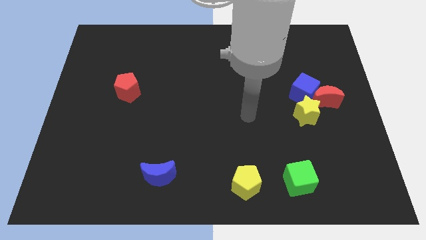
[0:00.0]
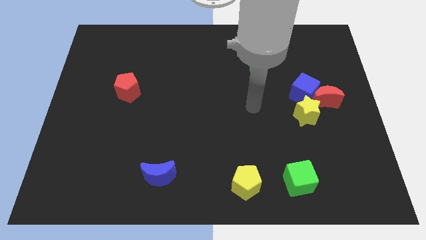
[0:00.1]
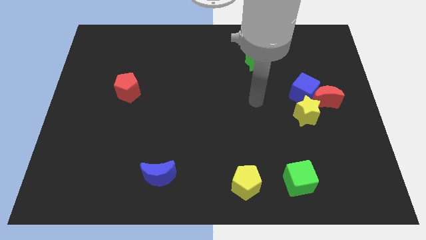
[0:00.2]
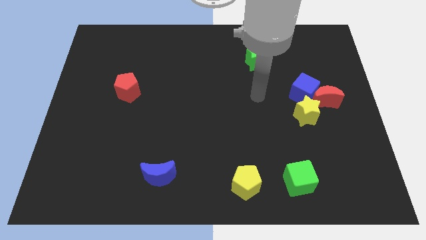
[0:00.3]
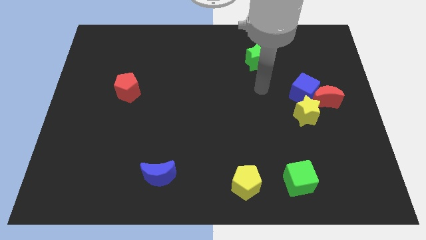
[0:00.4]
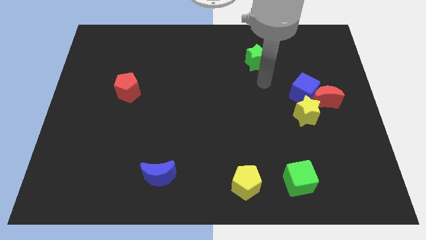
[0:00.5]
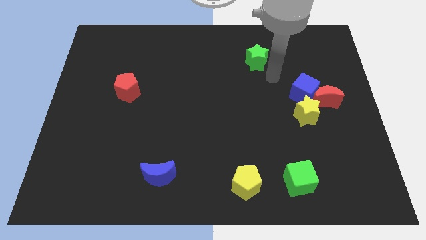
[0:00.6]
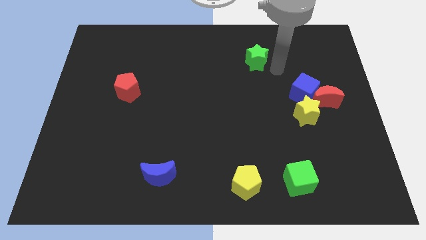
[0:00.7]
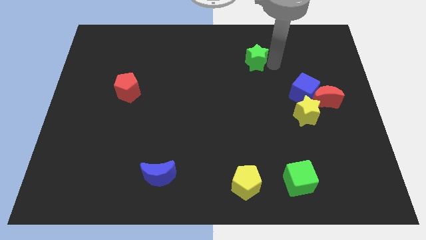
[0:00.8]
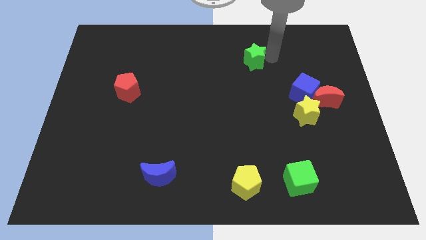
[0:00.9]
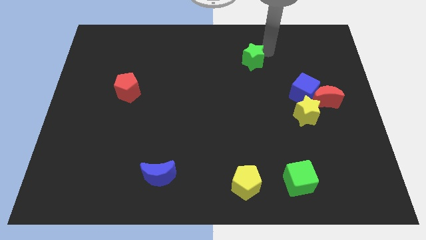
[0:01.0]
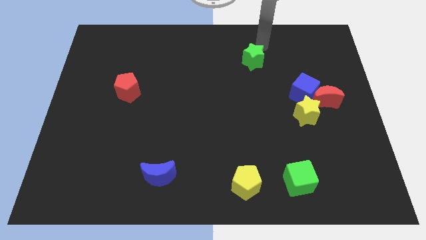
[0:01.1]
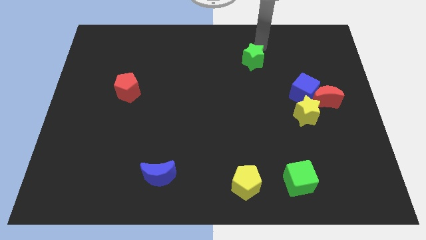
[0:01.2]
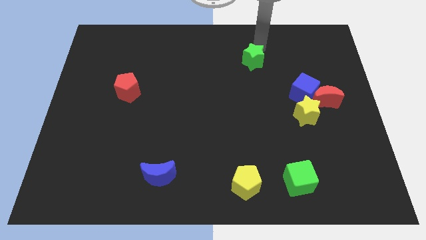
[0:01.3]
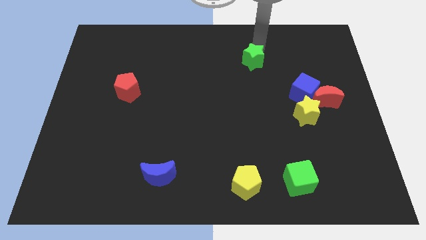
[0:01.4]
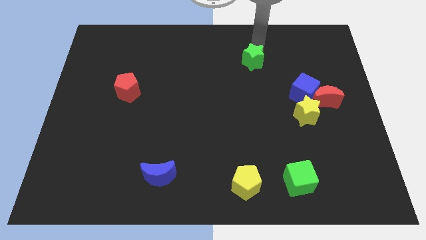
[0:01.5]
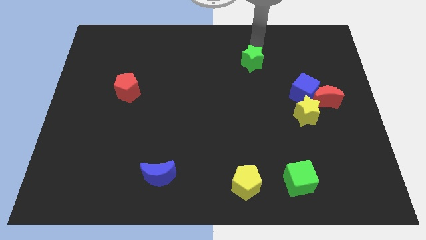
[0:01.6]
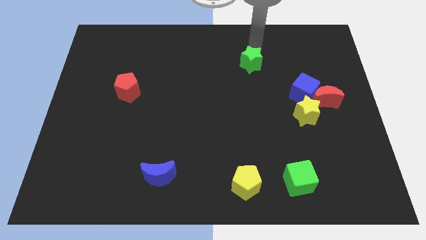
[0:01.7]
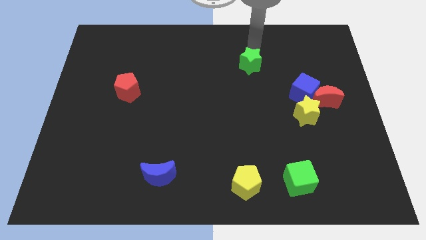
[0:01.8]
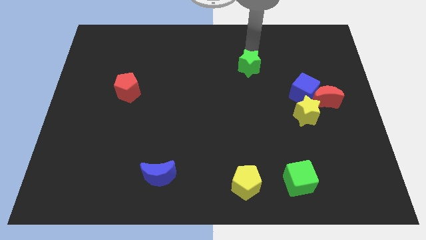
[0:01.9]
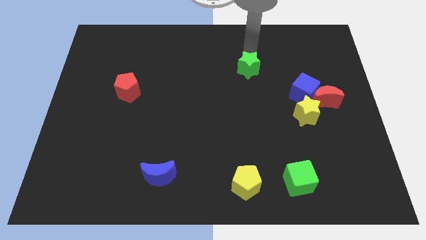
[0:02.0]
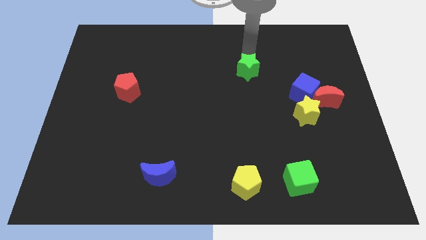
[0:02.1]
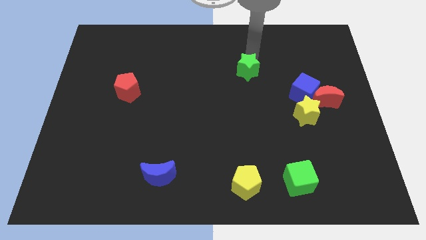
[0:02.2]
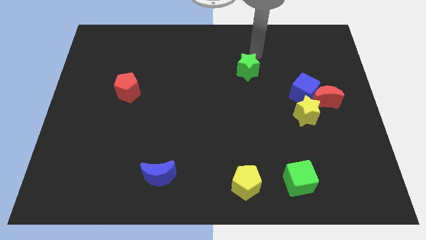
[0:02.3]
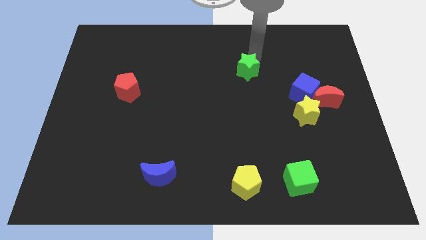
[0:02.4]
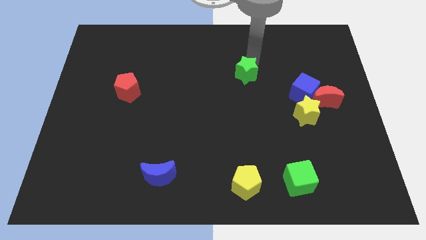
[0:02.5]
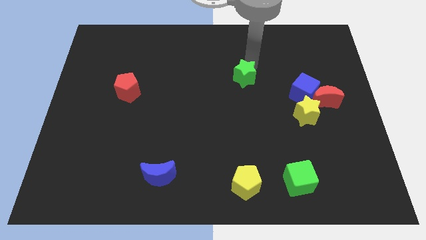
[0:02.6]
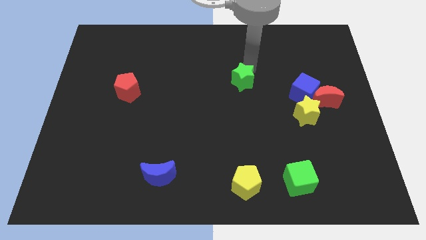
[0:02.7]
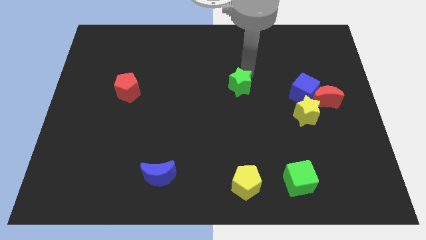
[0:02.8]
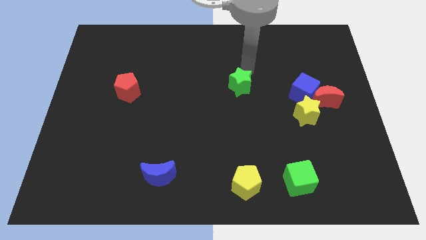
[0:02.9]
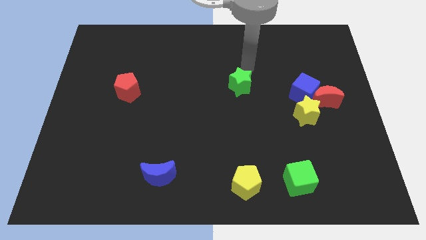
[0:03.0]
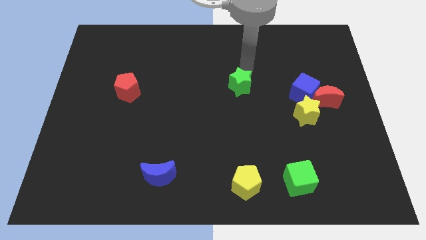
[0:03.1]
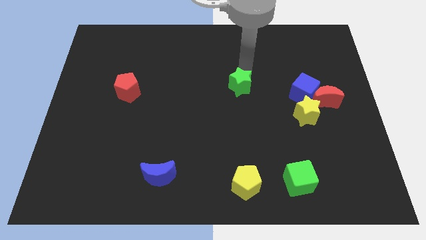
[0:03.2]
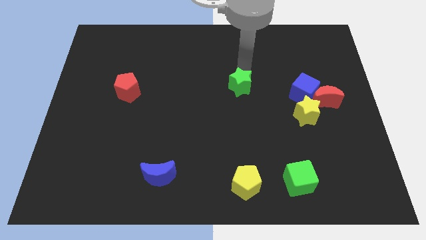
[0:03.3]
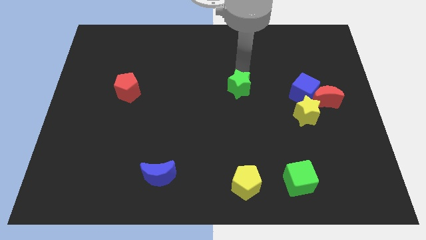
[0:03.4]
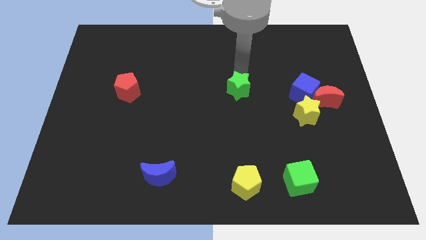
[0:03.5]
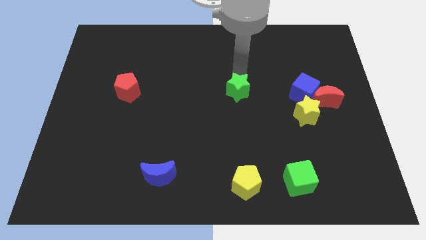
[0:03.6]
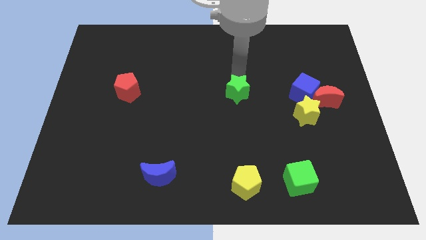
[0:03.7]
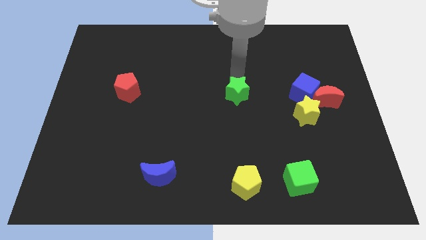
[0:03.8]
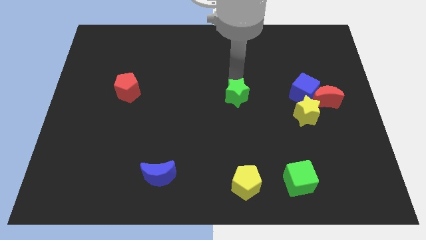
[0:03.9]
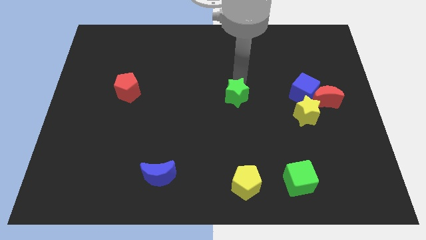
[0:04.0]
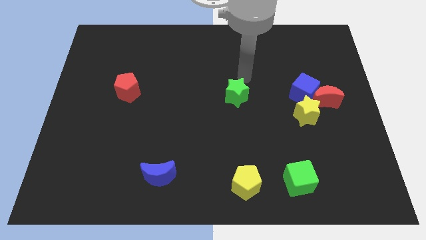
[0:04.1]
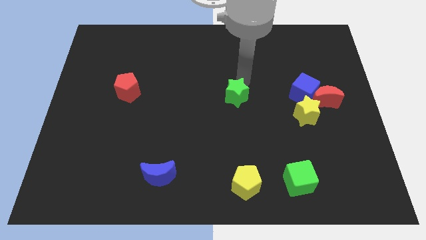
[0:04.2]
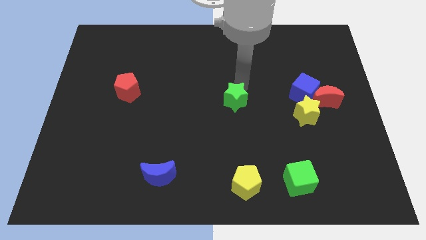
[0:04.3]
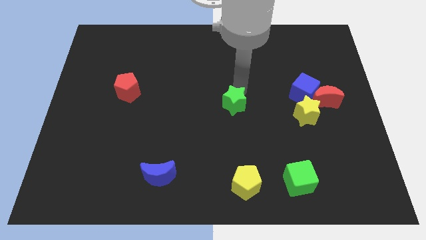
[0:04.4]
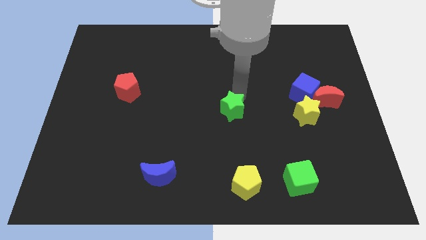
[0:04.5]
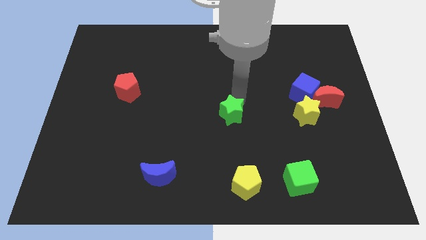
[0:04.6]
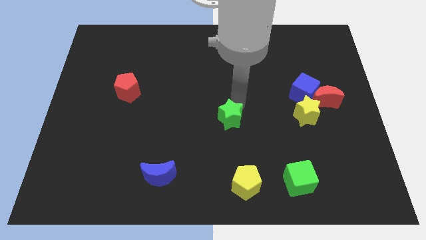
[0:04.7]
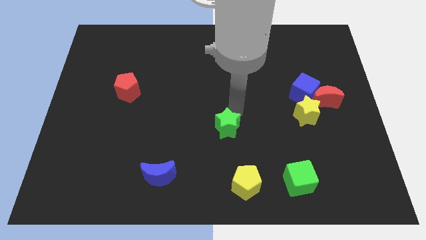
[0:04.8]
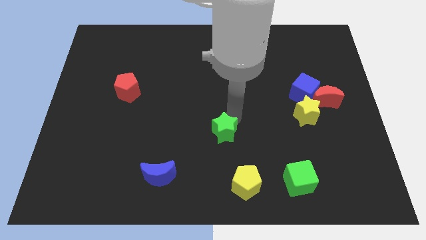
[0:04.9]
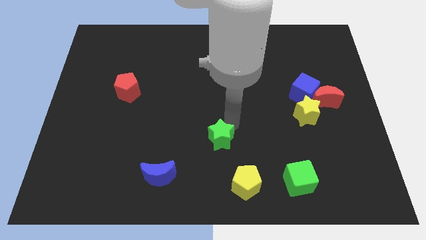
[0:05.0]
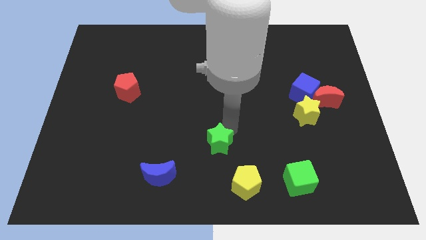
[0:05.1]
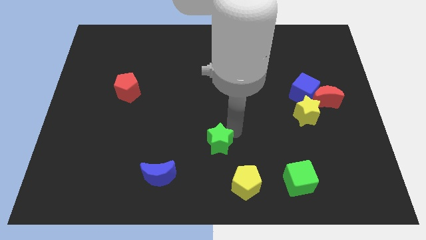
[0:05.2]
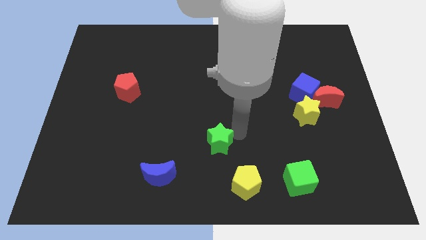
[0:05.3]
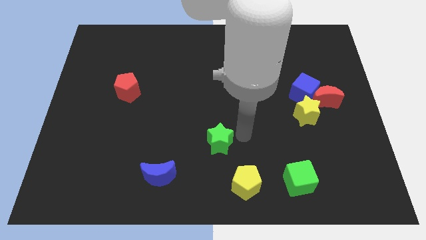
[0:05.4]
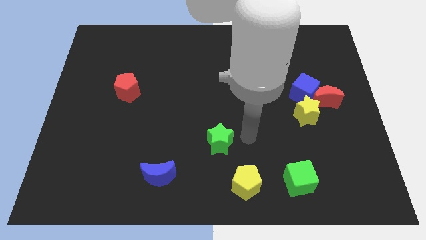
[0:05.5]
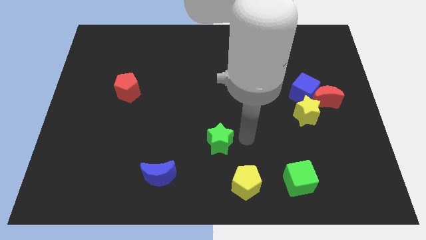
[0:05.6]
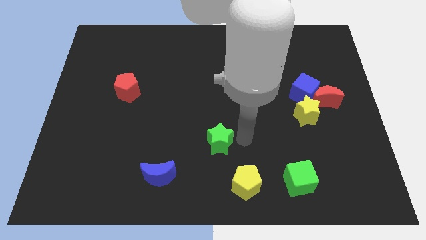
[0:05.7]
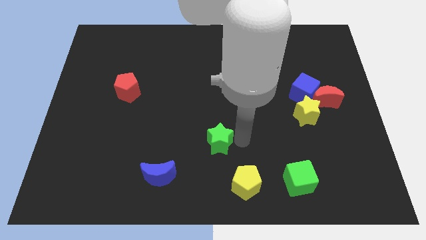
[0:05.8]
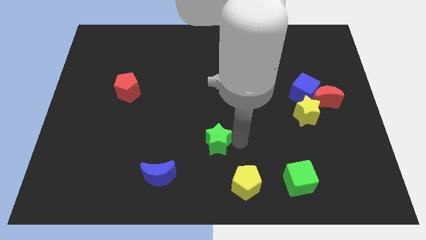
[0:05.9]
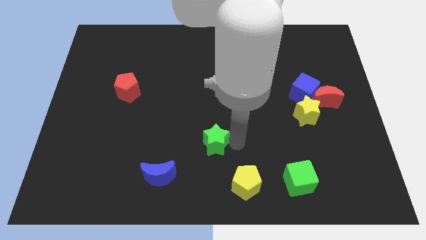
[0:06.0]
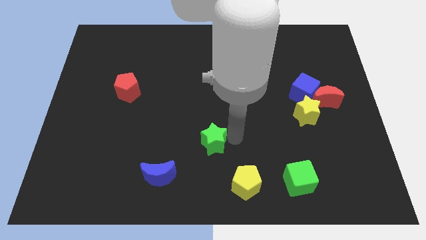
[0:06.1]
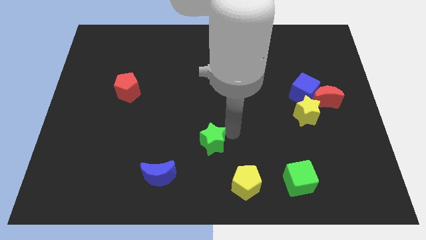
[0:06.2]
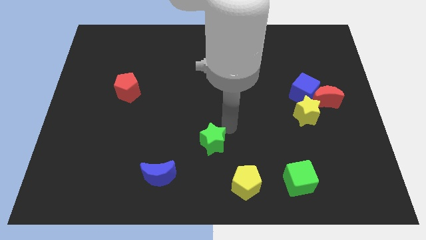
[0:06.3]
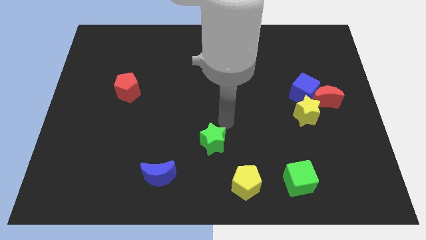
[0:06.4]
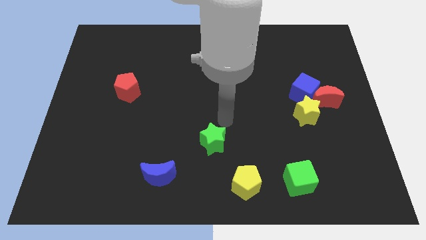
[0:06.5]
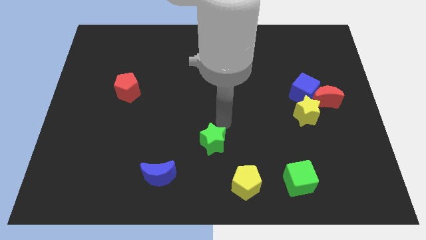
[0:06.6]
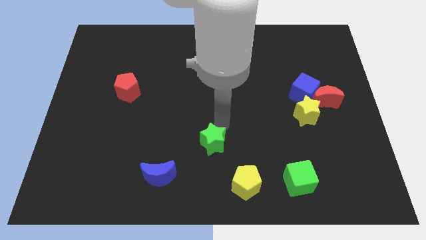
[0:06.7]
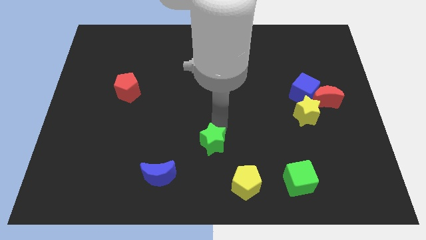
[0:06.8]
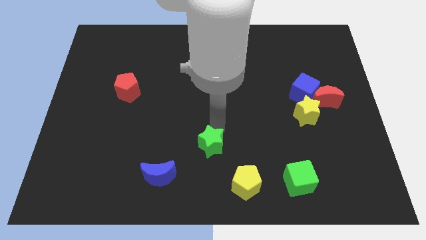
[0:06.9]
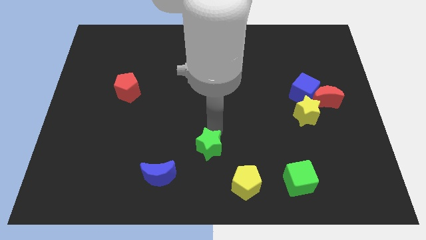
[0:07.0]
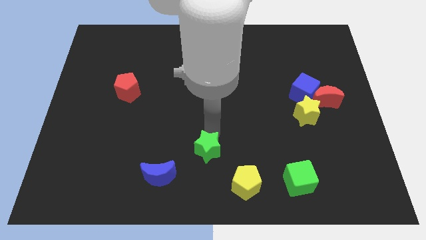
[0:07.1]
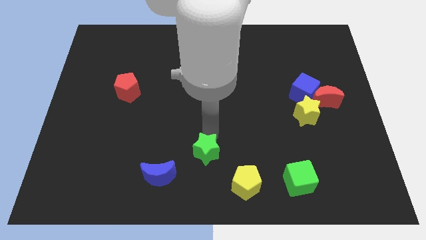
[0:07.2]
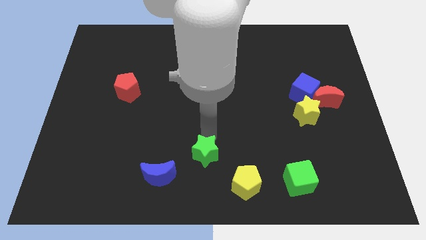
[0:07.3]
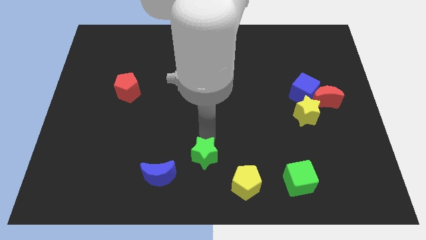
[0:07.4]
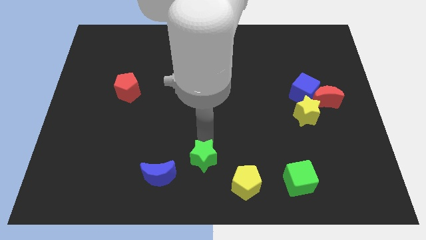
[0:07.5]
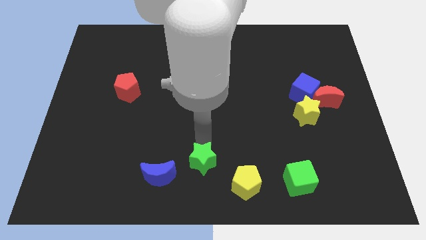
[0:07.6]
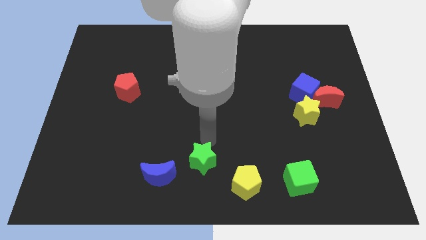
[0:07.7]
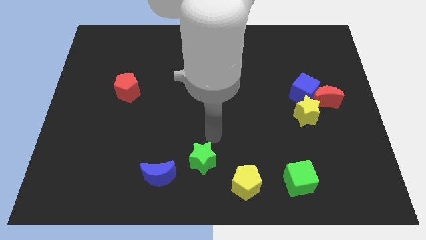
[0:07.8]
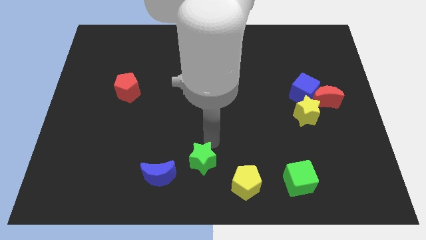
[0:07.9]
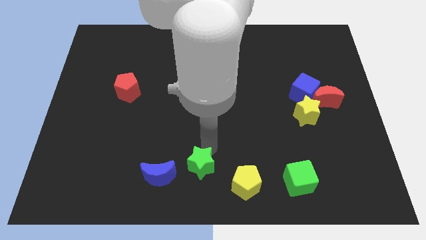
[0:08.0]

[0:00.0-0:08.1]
move the green star just left of the yellow pentagon

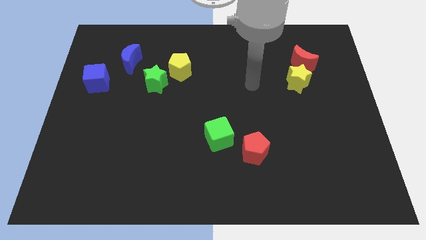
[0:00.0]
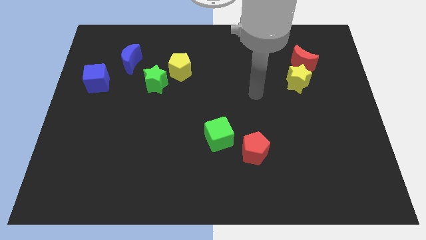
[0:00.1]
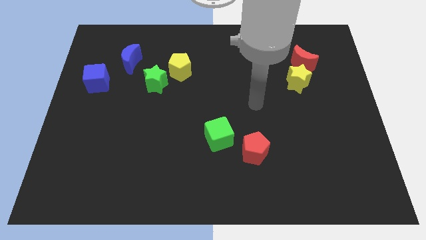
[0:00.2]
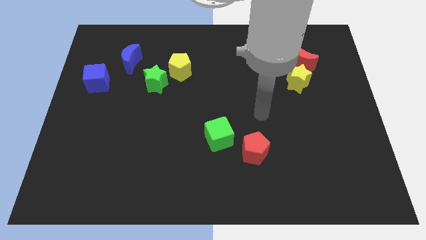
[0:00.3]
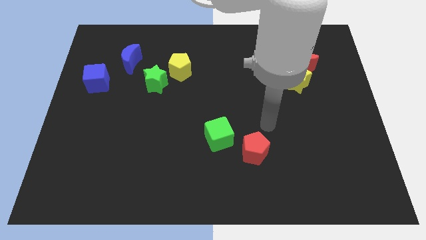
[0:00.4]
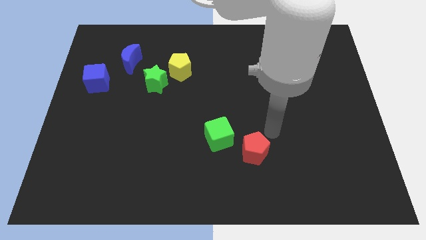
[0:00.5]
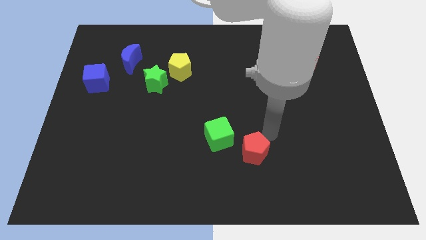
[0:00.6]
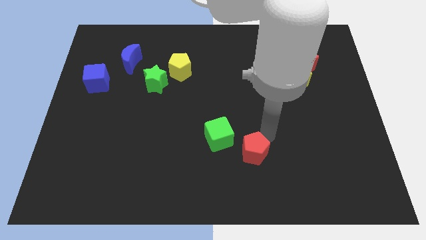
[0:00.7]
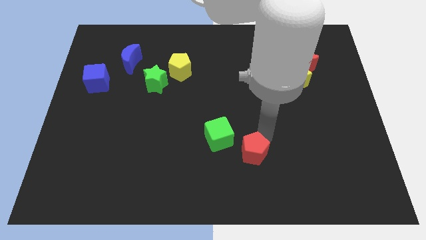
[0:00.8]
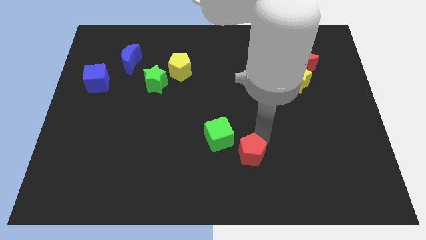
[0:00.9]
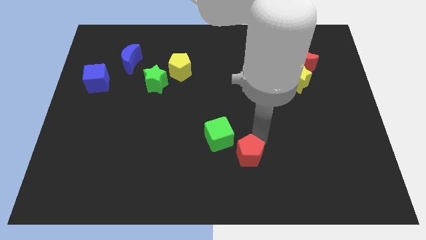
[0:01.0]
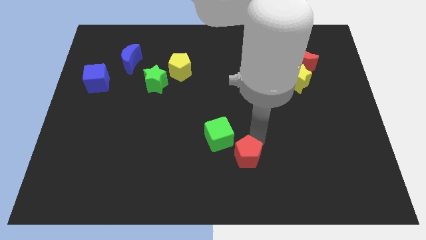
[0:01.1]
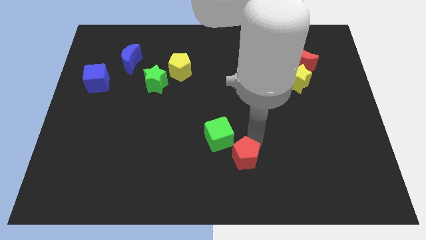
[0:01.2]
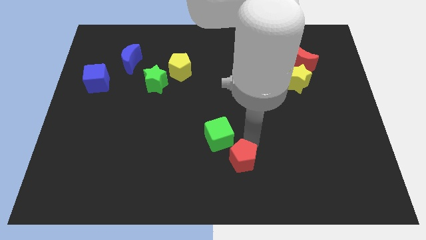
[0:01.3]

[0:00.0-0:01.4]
move the red pentagon to the bottom side of the green cube
